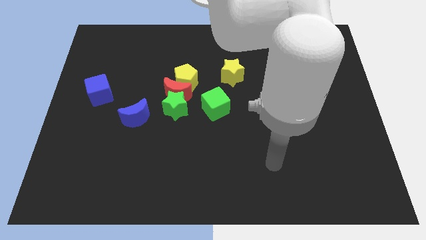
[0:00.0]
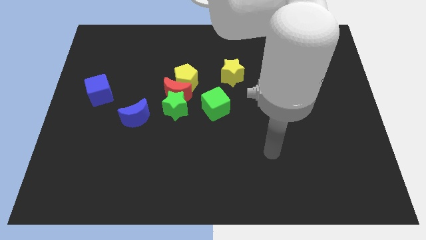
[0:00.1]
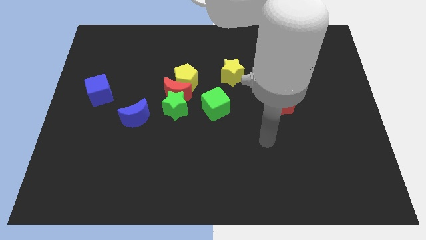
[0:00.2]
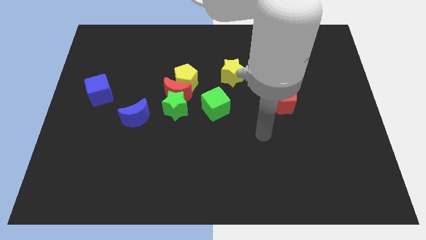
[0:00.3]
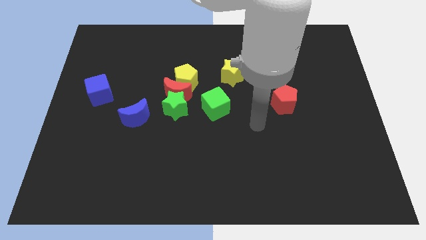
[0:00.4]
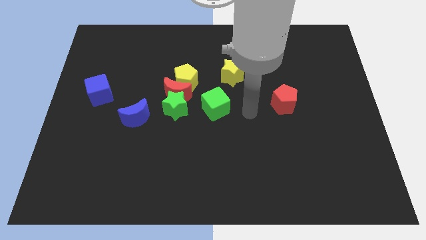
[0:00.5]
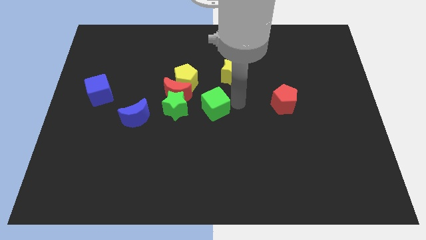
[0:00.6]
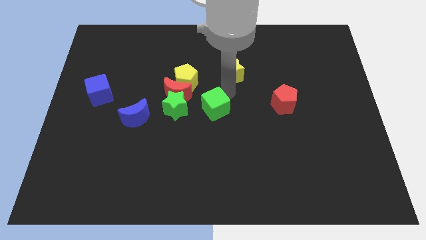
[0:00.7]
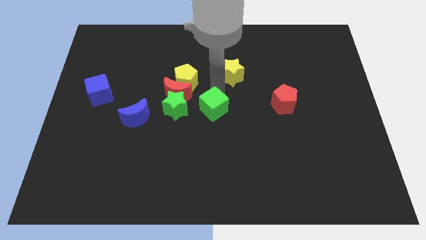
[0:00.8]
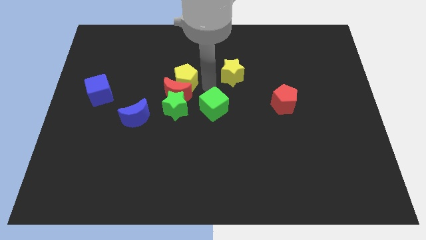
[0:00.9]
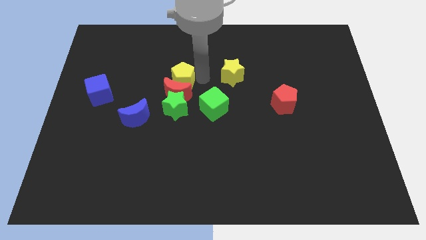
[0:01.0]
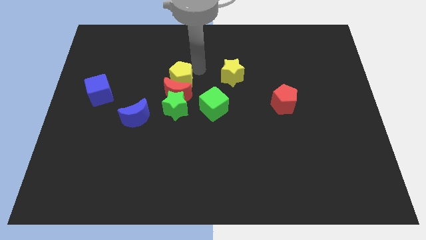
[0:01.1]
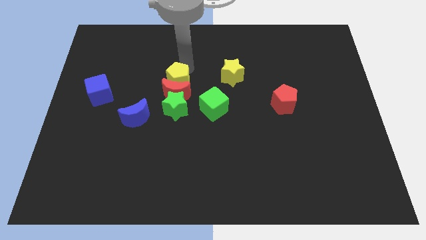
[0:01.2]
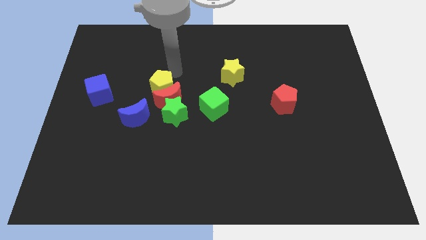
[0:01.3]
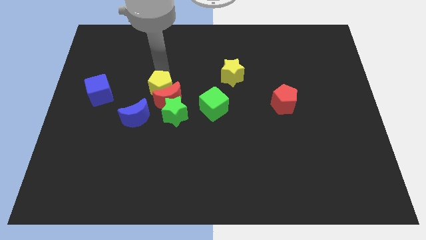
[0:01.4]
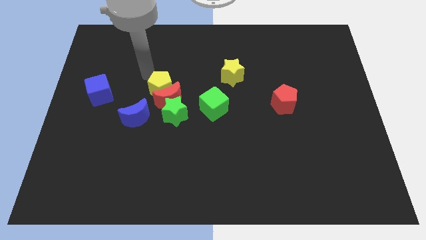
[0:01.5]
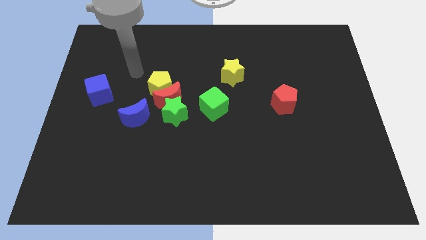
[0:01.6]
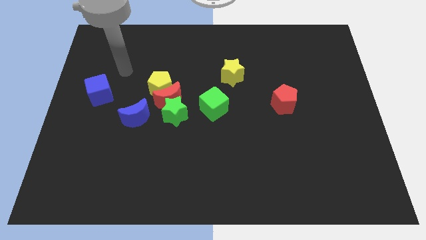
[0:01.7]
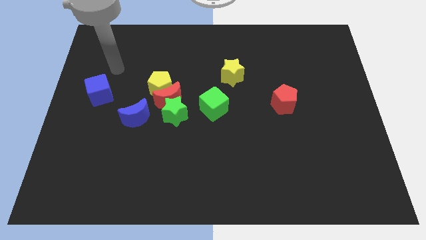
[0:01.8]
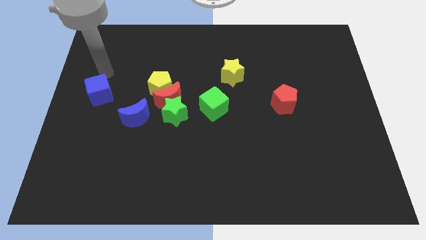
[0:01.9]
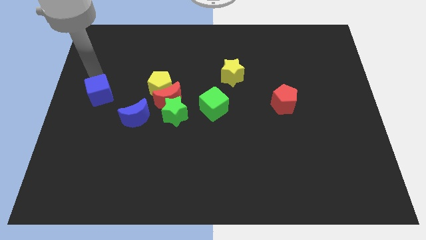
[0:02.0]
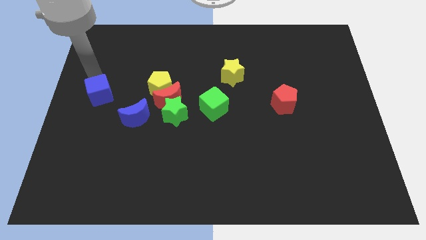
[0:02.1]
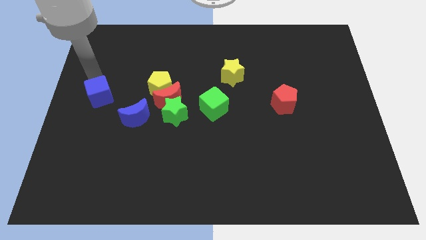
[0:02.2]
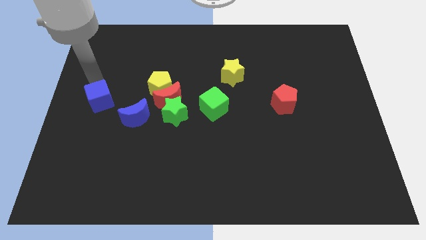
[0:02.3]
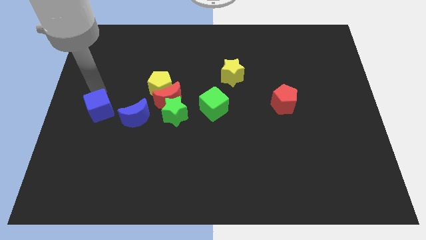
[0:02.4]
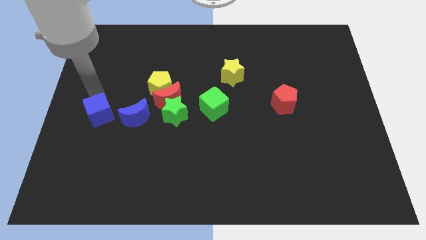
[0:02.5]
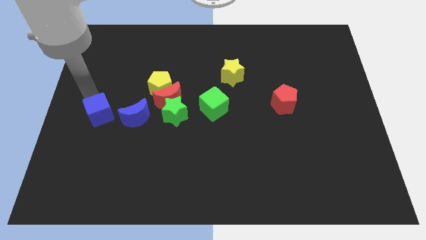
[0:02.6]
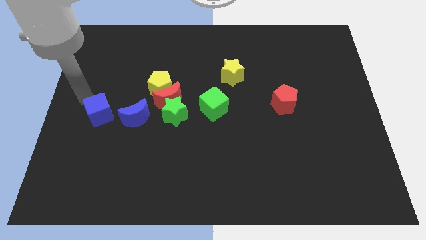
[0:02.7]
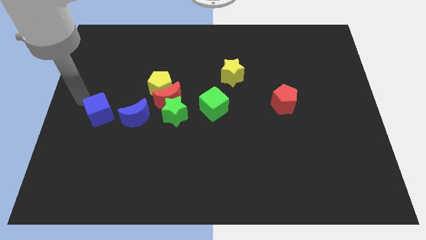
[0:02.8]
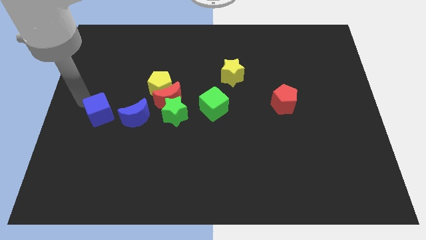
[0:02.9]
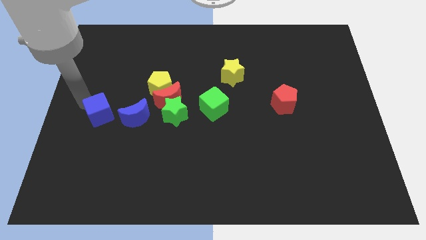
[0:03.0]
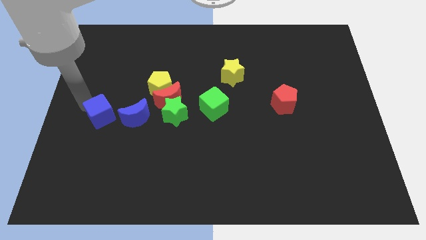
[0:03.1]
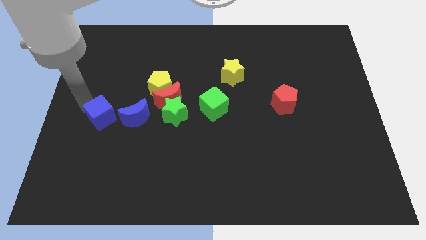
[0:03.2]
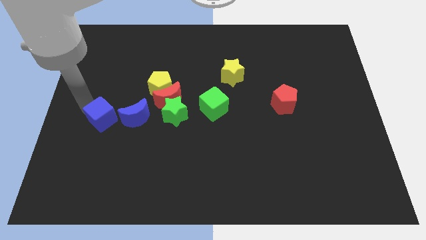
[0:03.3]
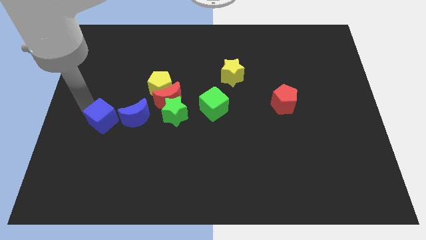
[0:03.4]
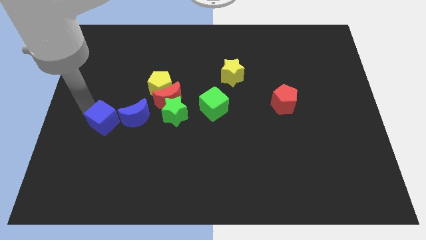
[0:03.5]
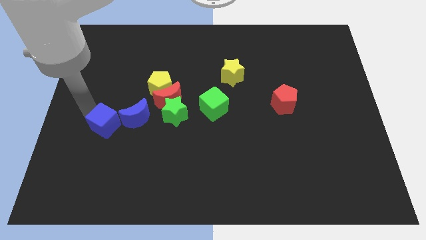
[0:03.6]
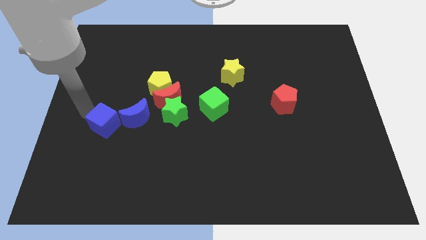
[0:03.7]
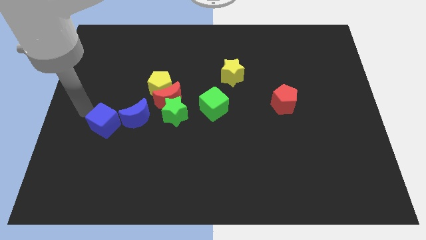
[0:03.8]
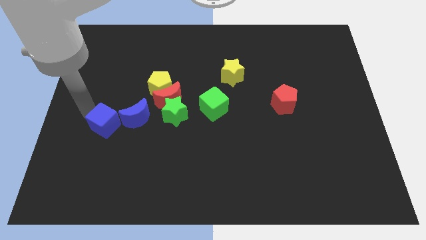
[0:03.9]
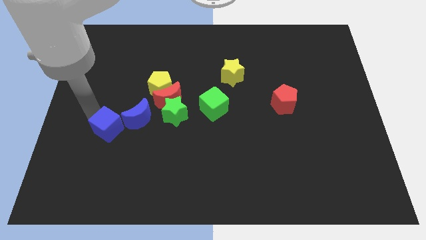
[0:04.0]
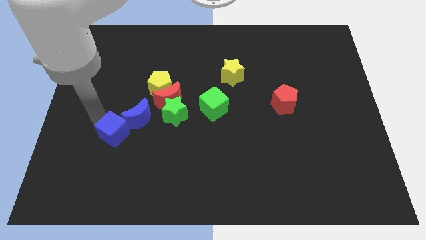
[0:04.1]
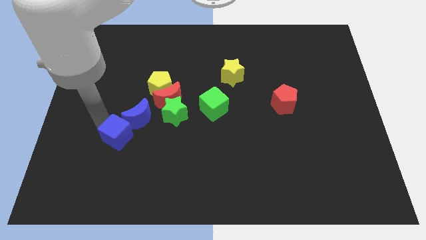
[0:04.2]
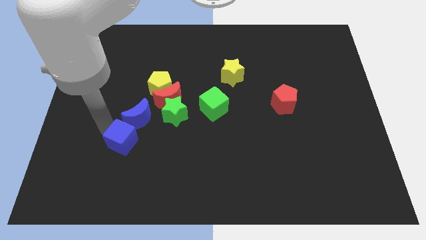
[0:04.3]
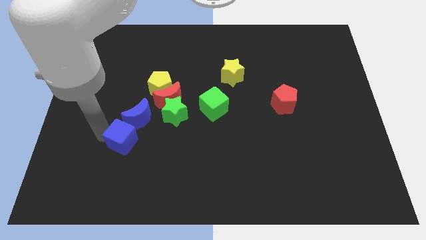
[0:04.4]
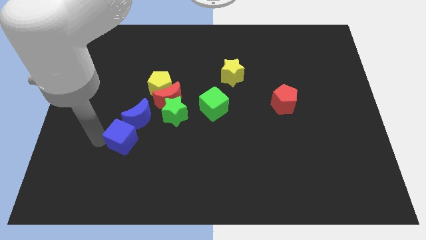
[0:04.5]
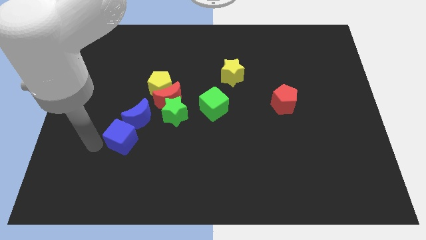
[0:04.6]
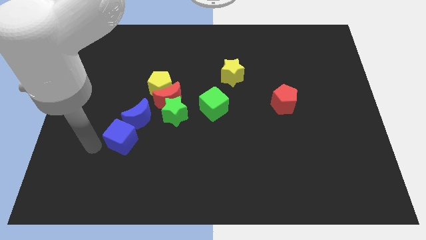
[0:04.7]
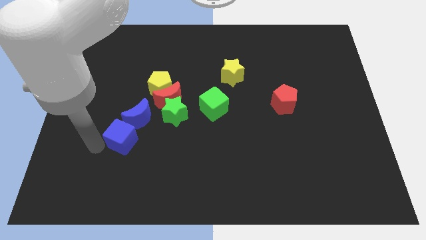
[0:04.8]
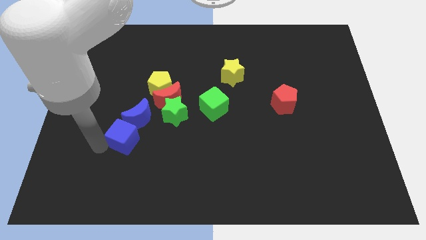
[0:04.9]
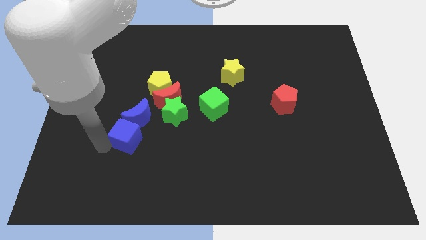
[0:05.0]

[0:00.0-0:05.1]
push the blue cube to the bottom left of the green star

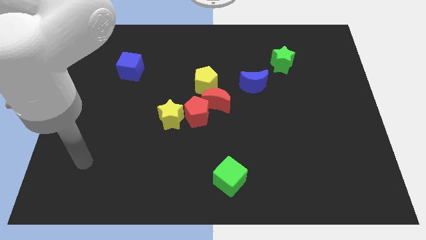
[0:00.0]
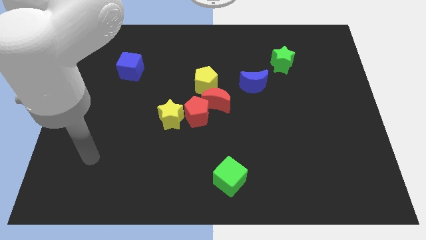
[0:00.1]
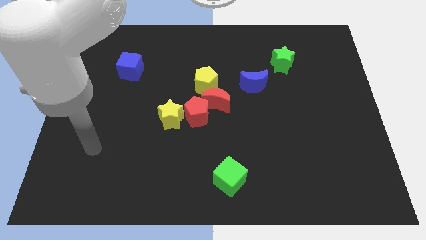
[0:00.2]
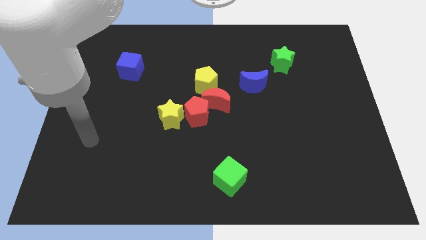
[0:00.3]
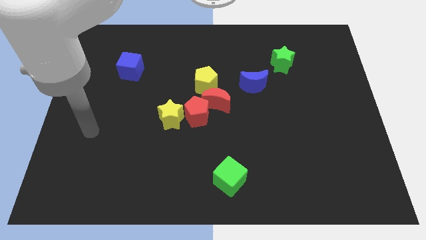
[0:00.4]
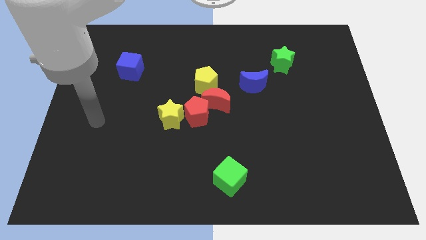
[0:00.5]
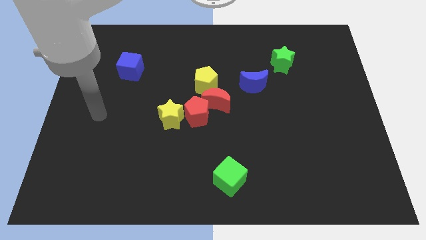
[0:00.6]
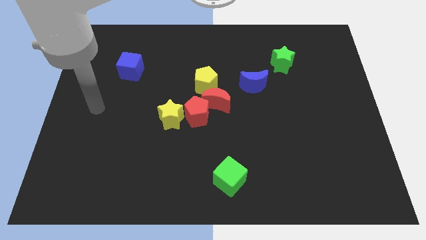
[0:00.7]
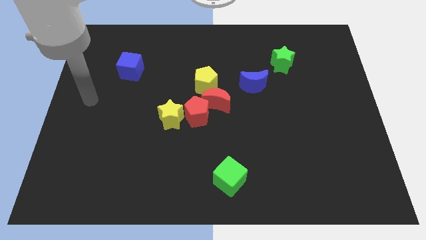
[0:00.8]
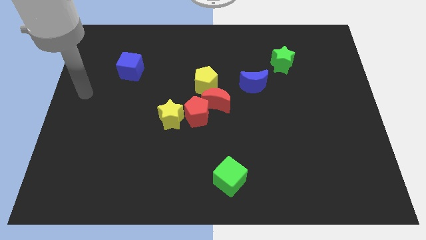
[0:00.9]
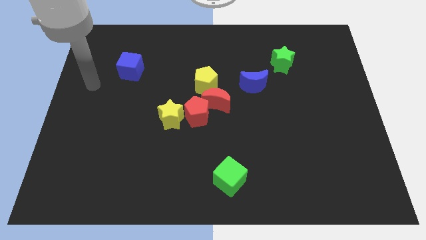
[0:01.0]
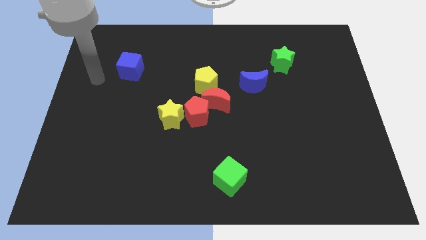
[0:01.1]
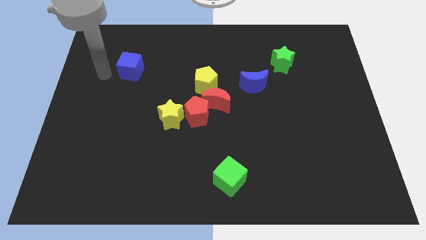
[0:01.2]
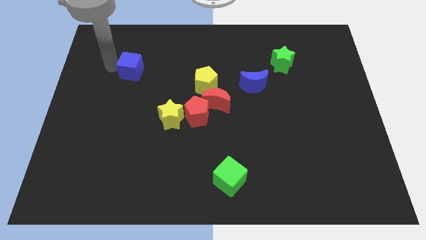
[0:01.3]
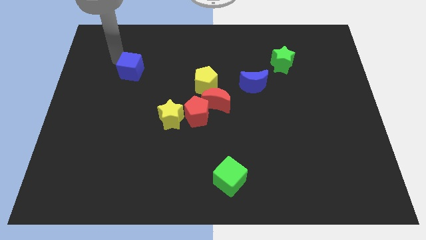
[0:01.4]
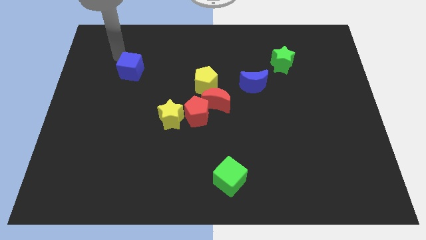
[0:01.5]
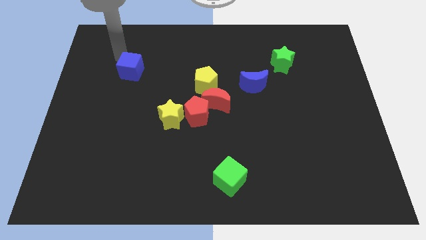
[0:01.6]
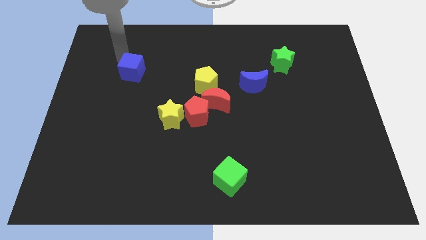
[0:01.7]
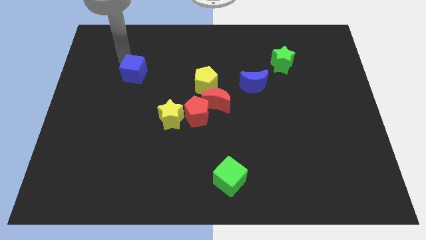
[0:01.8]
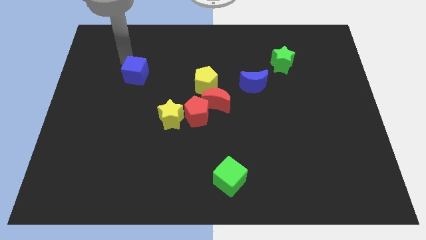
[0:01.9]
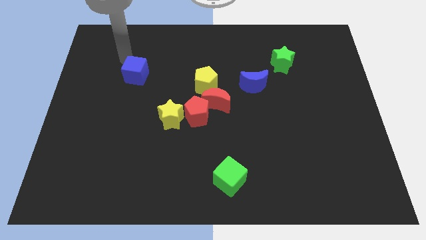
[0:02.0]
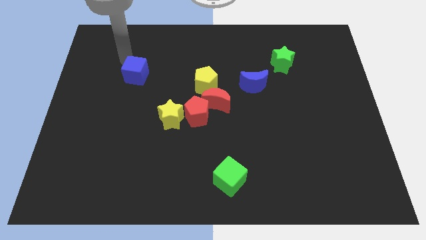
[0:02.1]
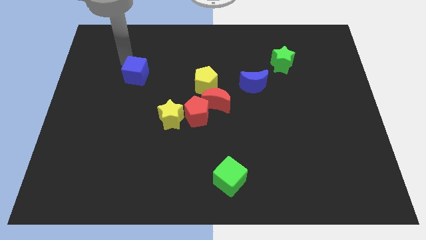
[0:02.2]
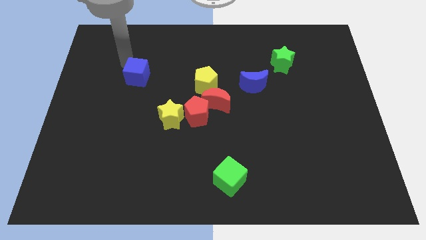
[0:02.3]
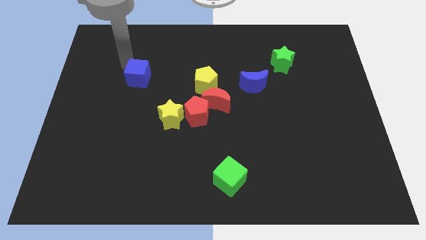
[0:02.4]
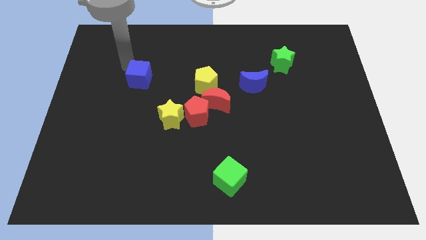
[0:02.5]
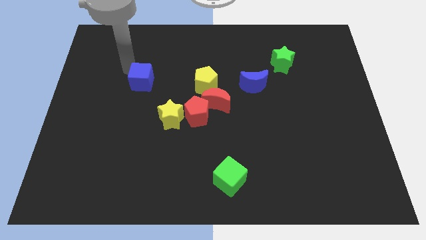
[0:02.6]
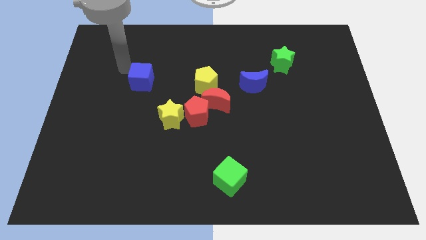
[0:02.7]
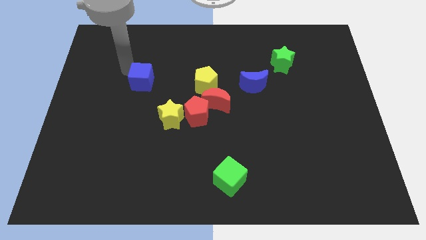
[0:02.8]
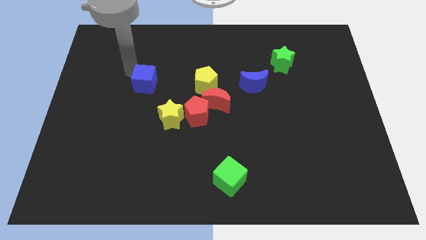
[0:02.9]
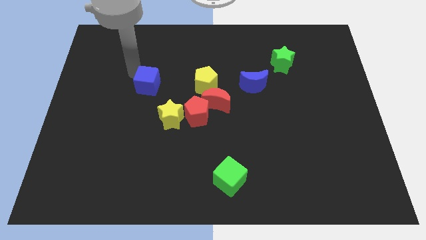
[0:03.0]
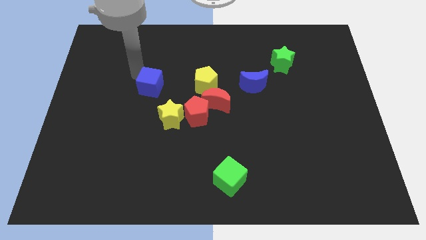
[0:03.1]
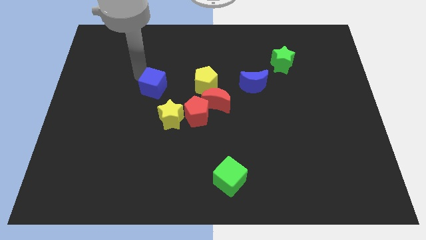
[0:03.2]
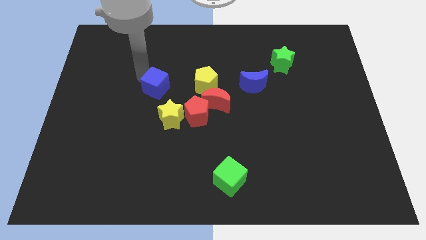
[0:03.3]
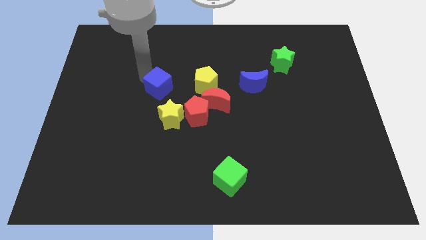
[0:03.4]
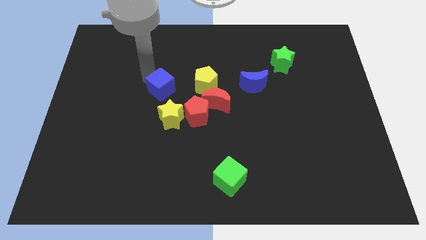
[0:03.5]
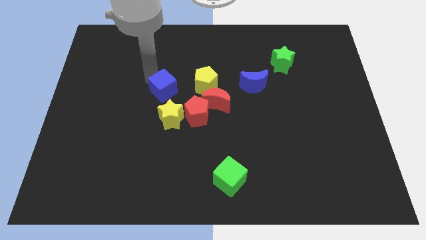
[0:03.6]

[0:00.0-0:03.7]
push the blue cube left of the red moon
